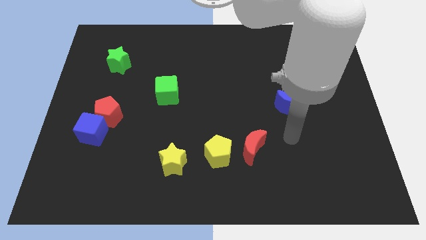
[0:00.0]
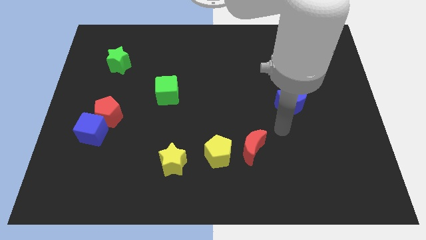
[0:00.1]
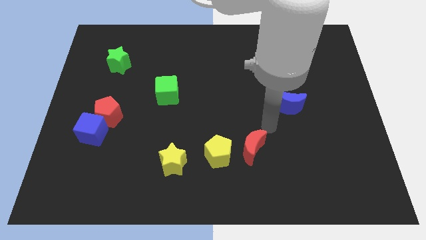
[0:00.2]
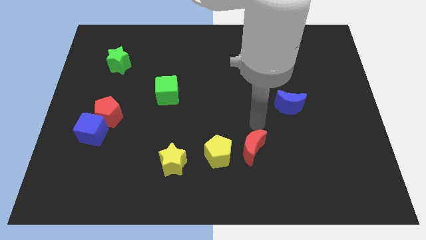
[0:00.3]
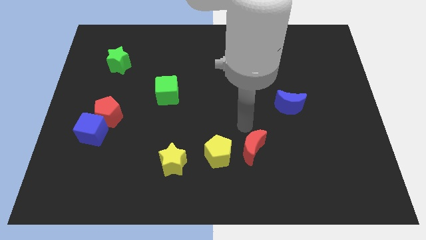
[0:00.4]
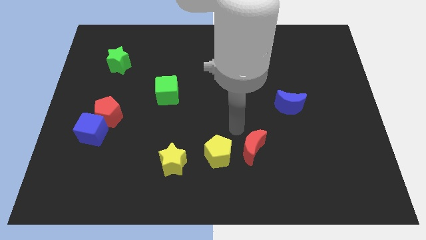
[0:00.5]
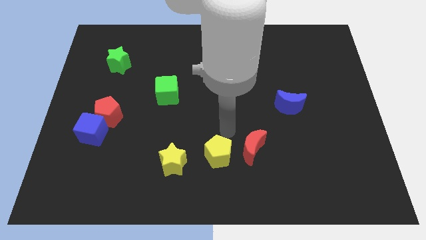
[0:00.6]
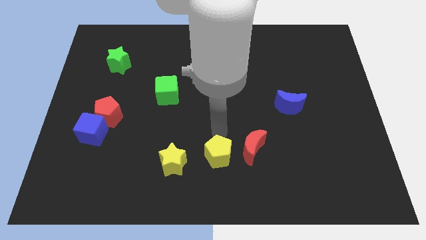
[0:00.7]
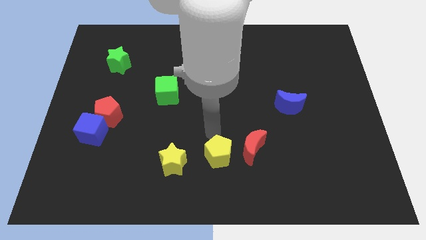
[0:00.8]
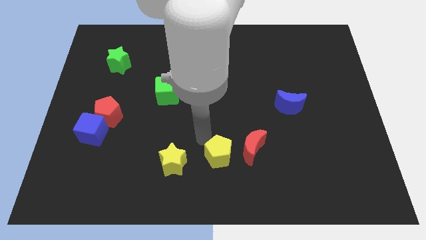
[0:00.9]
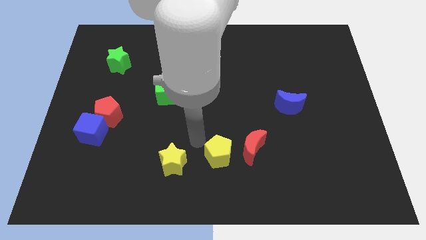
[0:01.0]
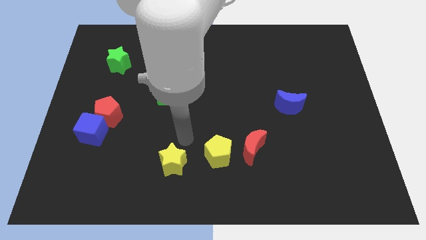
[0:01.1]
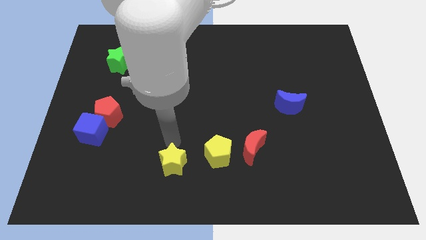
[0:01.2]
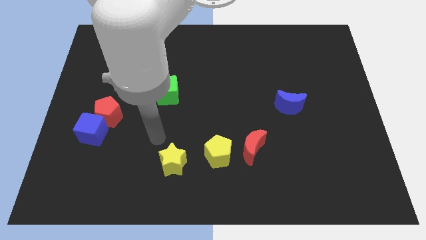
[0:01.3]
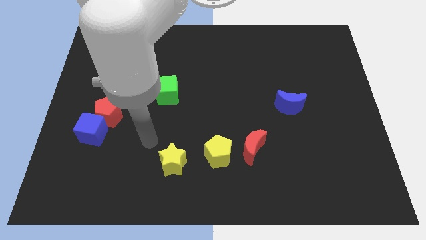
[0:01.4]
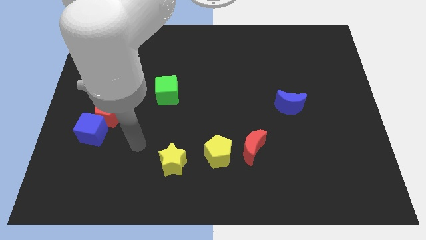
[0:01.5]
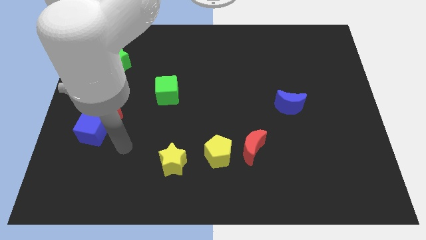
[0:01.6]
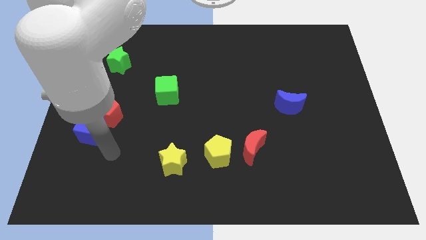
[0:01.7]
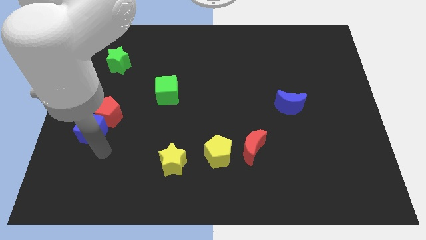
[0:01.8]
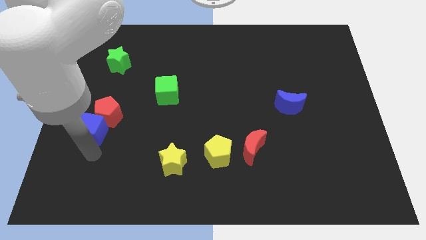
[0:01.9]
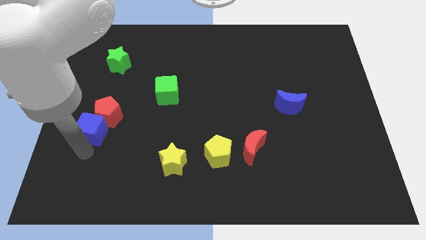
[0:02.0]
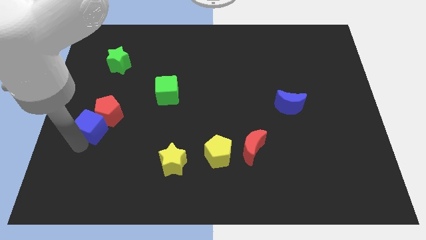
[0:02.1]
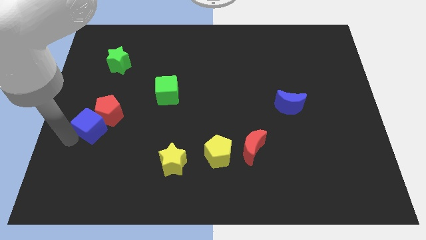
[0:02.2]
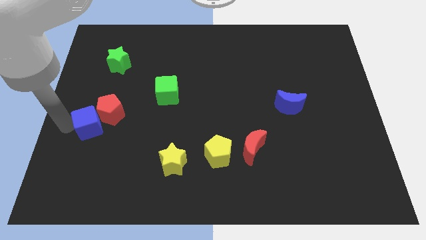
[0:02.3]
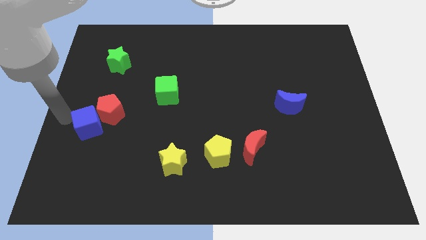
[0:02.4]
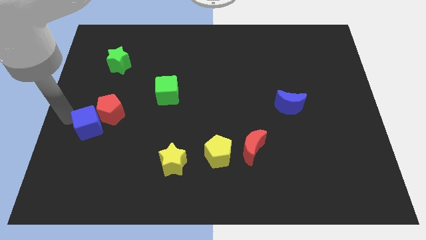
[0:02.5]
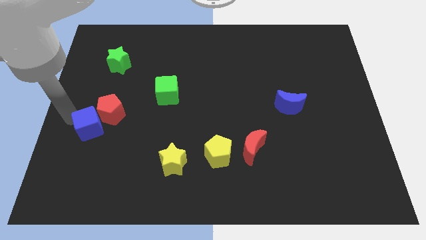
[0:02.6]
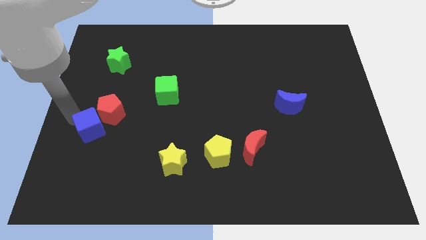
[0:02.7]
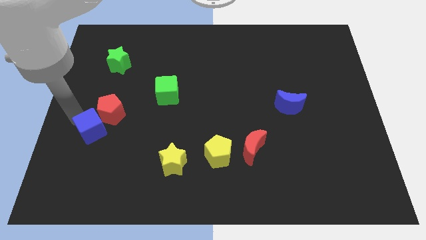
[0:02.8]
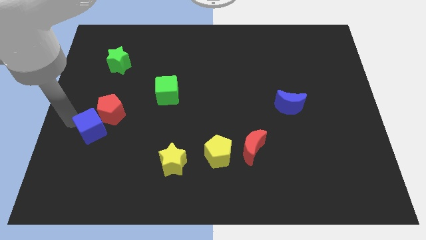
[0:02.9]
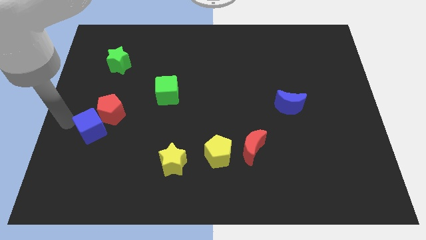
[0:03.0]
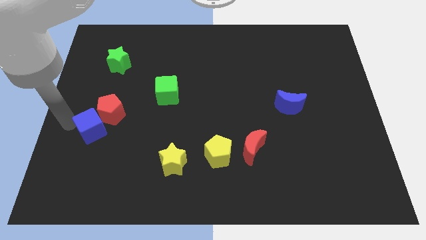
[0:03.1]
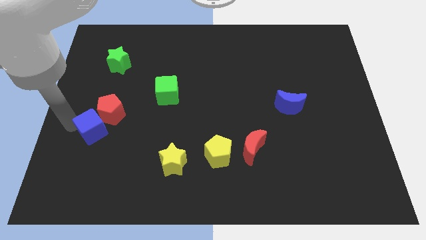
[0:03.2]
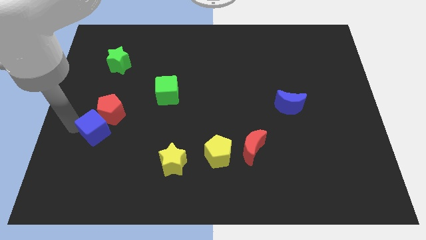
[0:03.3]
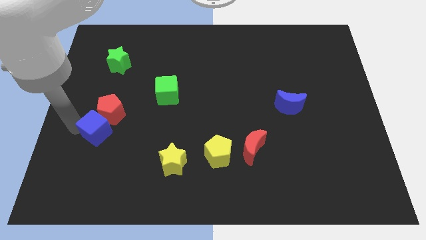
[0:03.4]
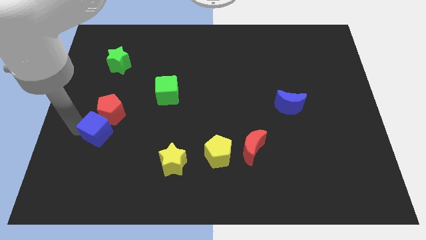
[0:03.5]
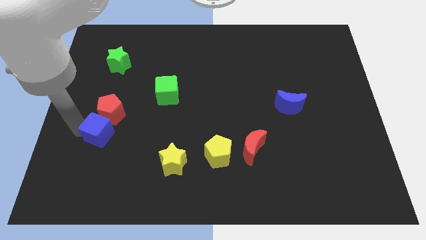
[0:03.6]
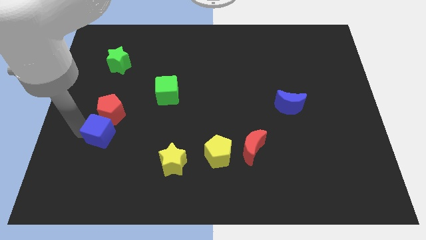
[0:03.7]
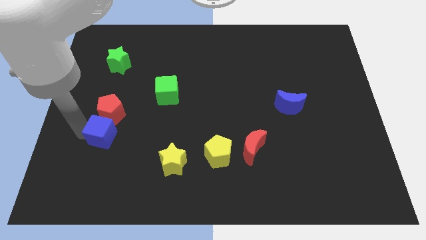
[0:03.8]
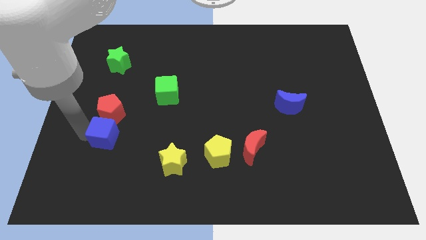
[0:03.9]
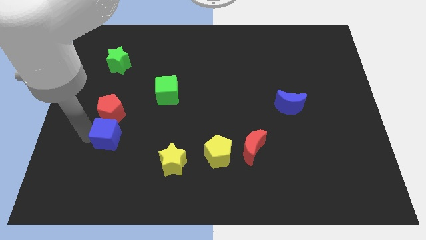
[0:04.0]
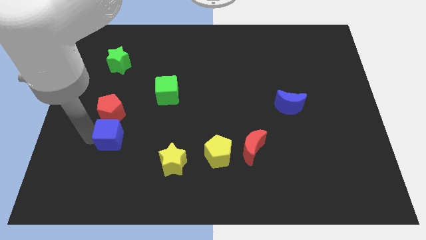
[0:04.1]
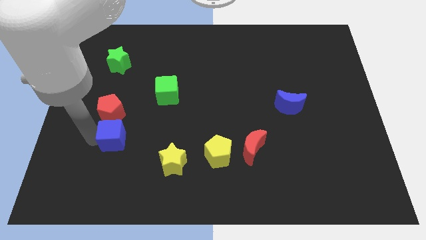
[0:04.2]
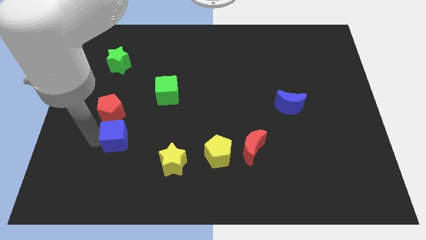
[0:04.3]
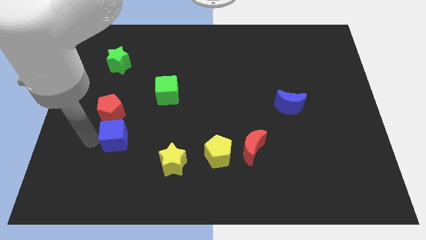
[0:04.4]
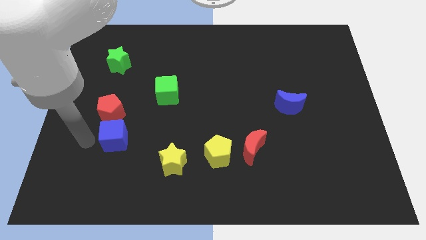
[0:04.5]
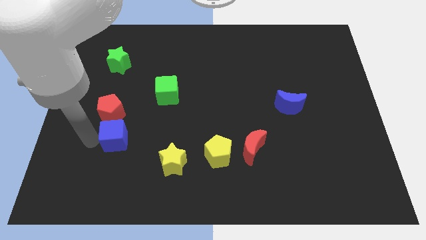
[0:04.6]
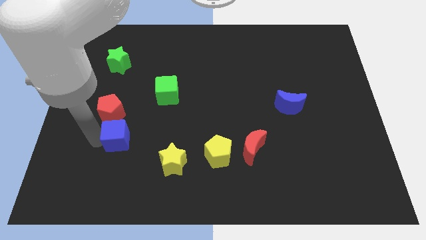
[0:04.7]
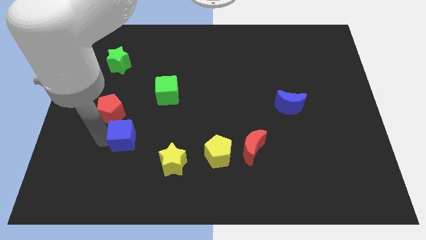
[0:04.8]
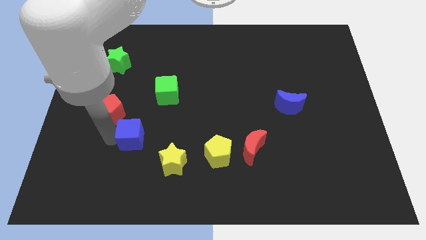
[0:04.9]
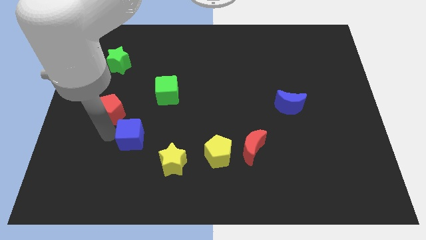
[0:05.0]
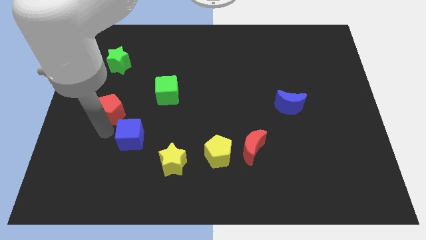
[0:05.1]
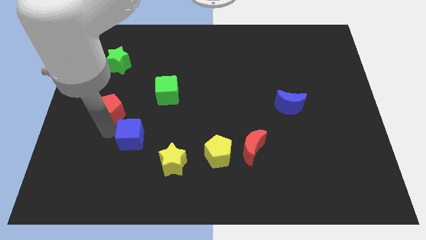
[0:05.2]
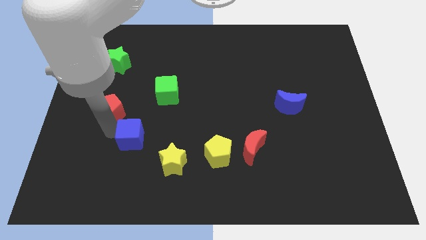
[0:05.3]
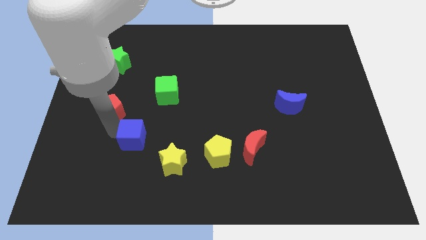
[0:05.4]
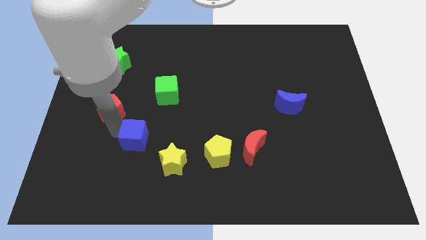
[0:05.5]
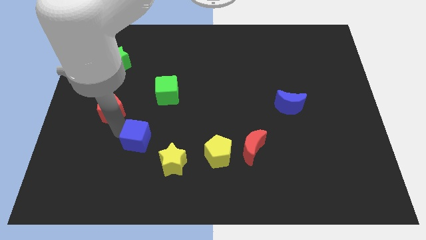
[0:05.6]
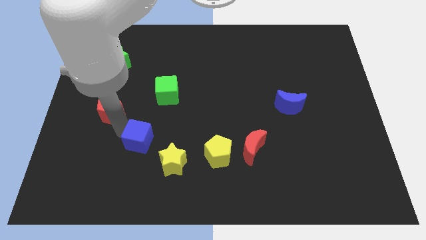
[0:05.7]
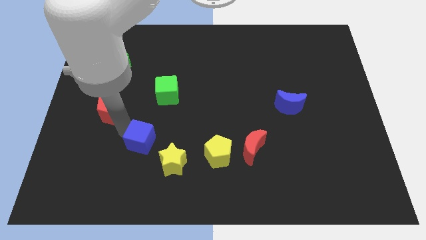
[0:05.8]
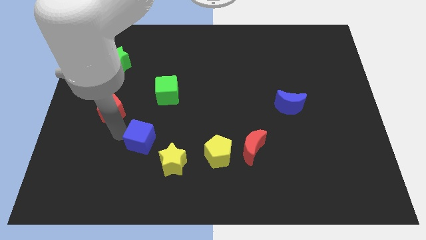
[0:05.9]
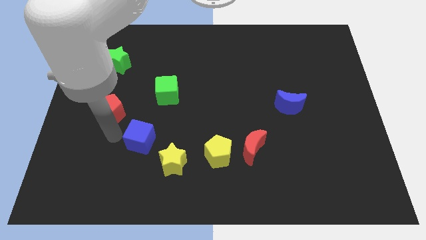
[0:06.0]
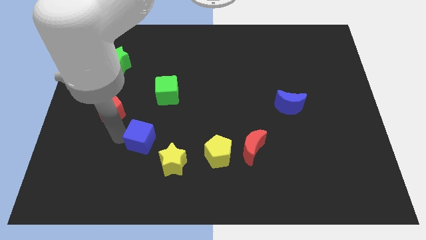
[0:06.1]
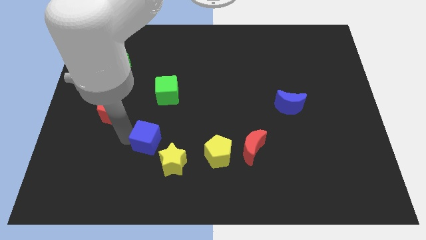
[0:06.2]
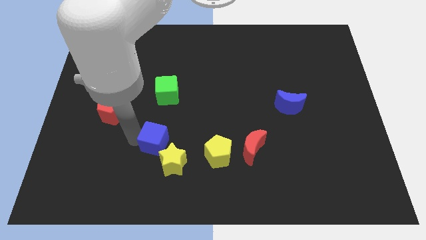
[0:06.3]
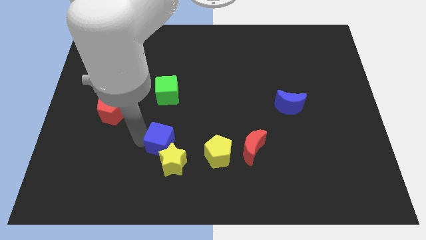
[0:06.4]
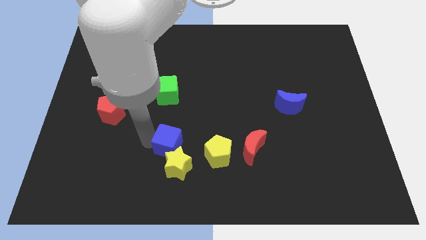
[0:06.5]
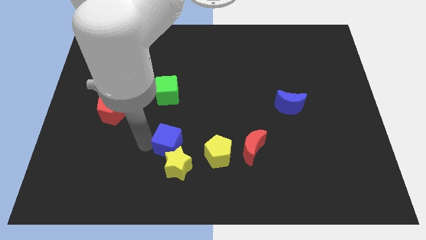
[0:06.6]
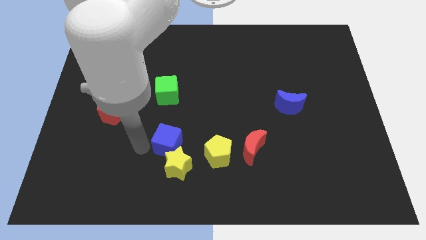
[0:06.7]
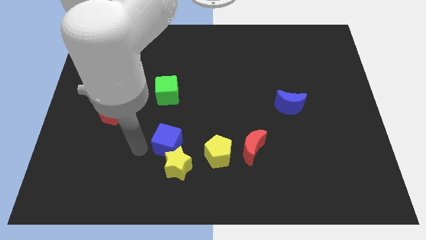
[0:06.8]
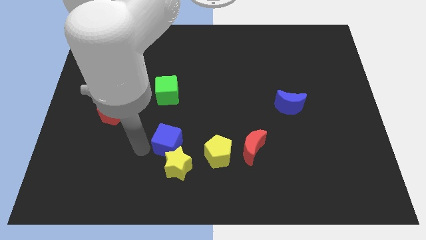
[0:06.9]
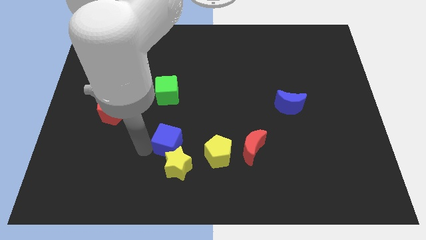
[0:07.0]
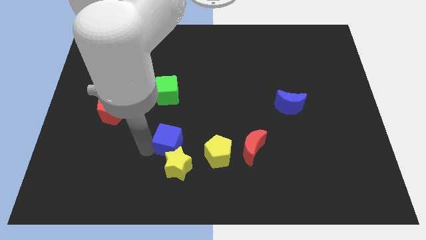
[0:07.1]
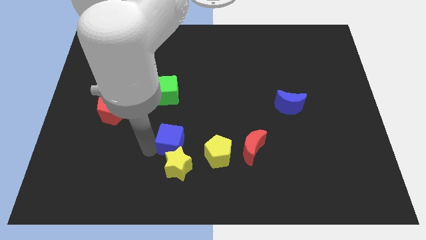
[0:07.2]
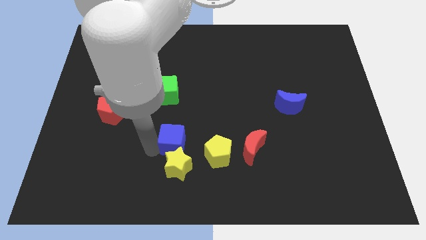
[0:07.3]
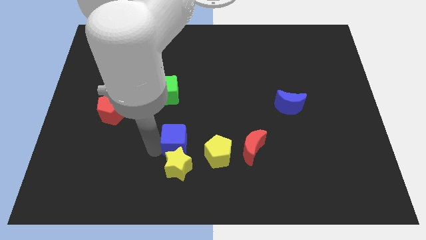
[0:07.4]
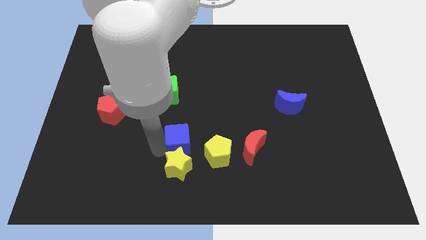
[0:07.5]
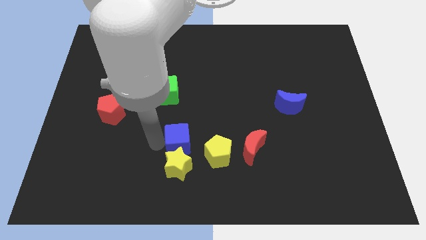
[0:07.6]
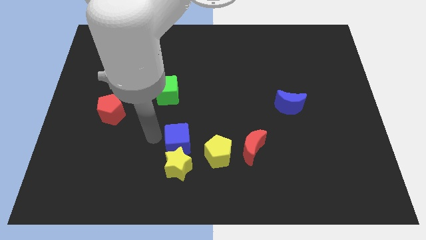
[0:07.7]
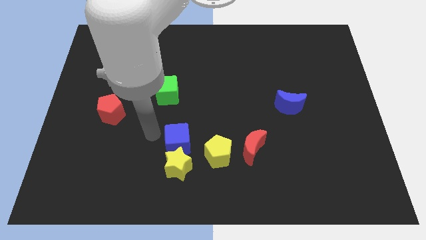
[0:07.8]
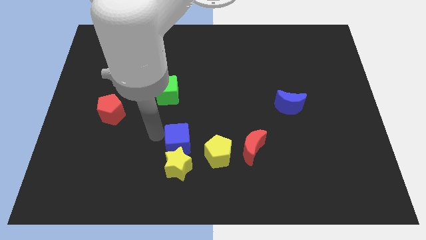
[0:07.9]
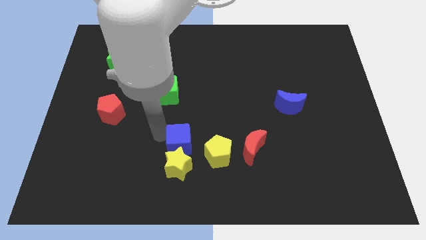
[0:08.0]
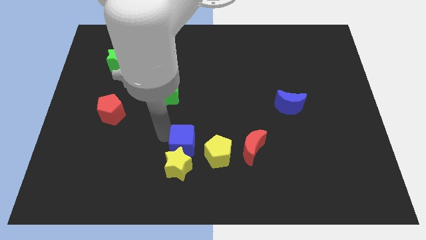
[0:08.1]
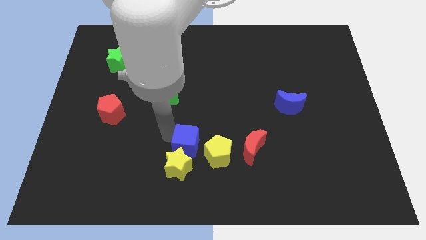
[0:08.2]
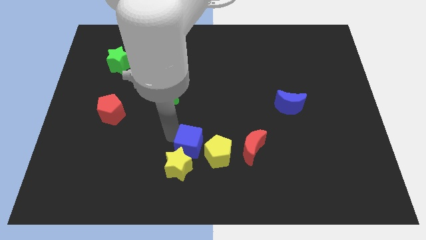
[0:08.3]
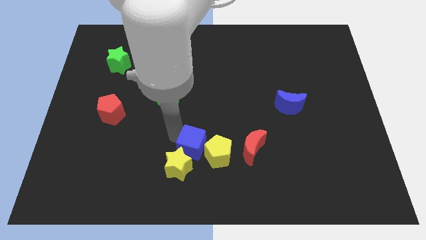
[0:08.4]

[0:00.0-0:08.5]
move the blue cube to the yellow pentagon
